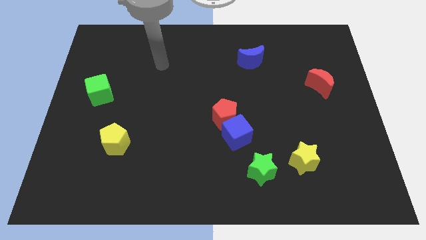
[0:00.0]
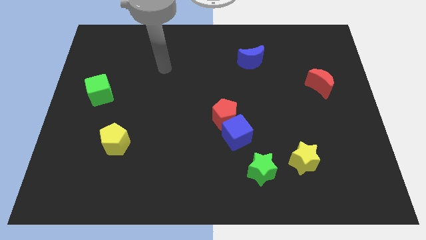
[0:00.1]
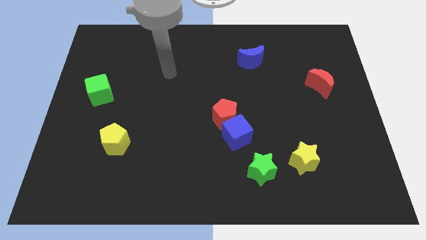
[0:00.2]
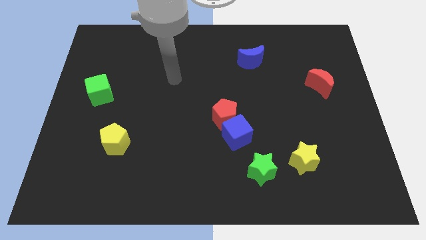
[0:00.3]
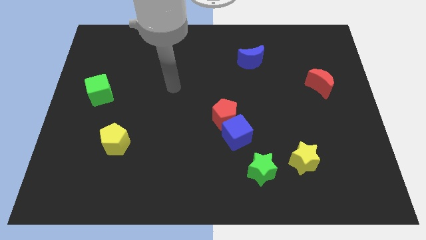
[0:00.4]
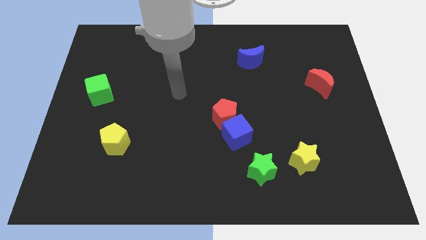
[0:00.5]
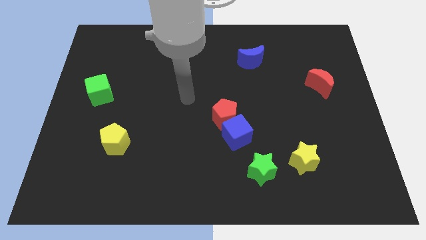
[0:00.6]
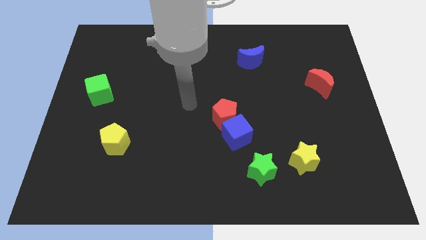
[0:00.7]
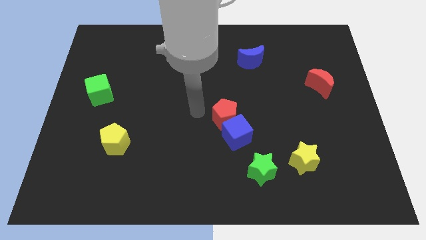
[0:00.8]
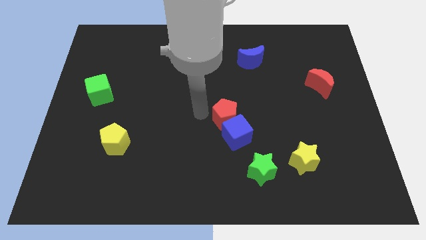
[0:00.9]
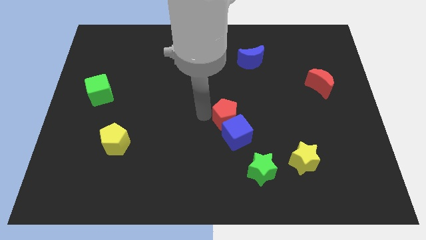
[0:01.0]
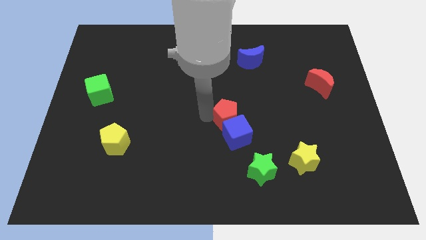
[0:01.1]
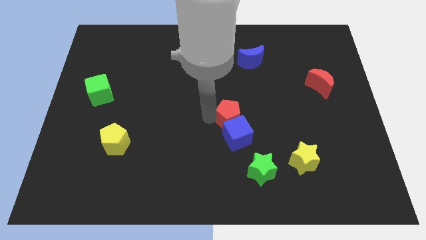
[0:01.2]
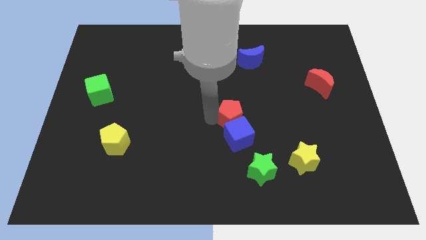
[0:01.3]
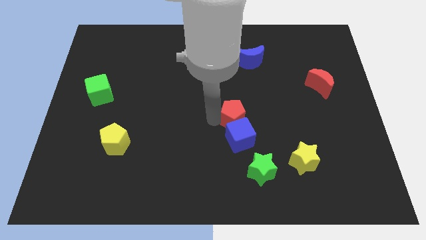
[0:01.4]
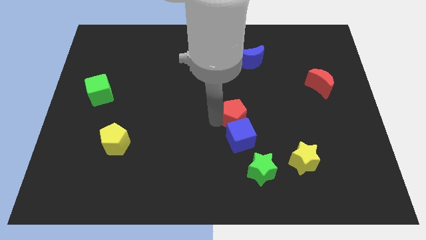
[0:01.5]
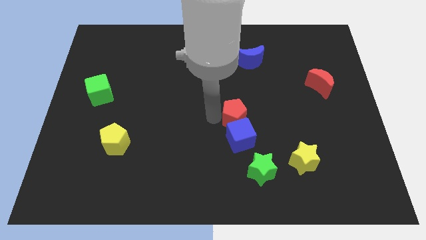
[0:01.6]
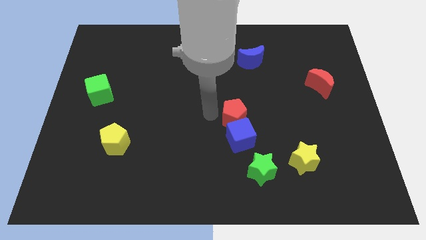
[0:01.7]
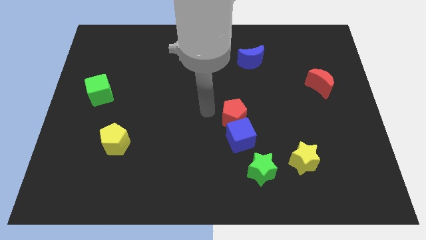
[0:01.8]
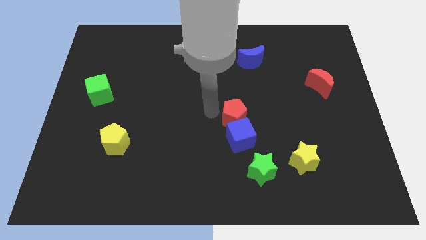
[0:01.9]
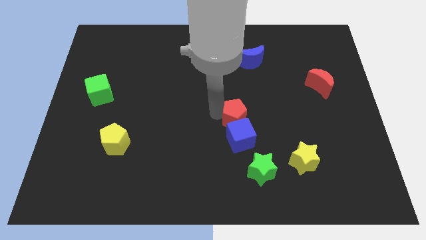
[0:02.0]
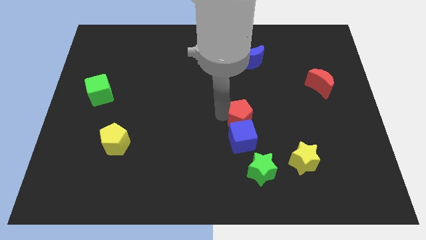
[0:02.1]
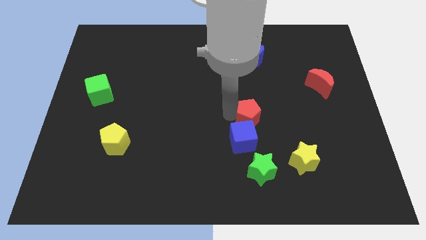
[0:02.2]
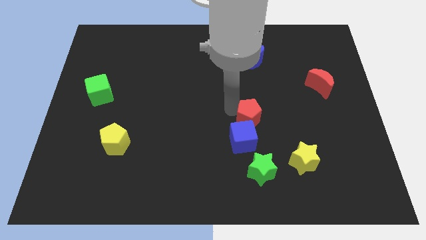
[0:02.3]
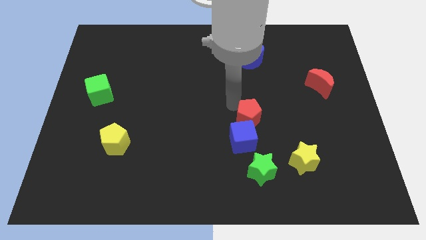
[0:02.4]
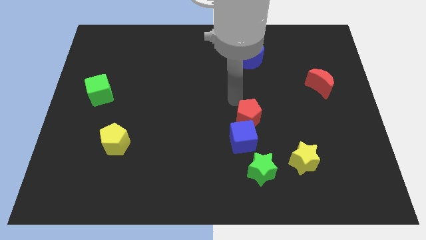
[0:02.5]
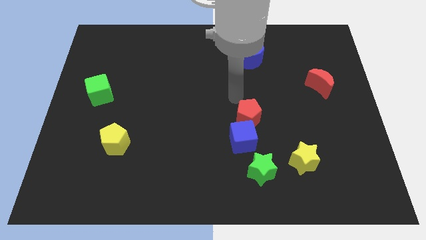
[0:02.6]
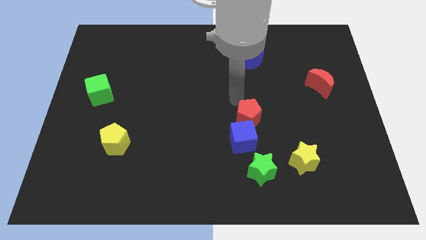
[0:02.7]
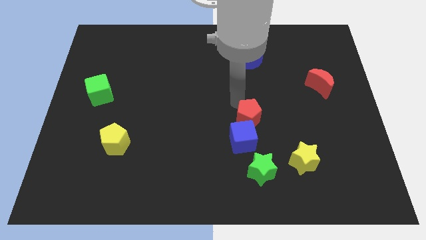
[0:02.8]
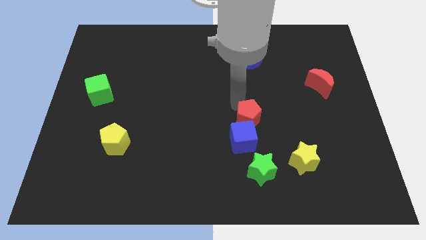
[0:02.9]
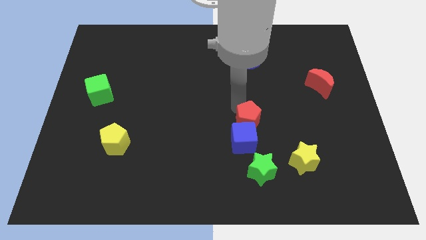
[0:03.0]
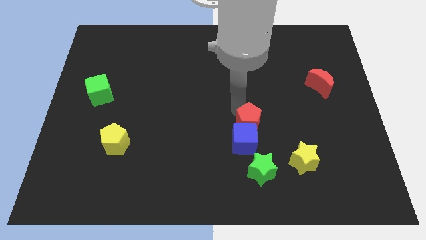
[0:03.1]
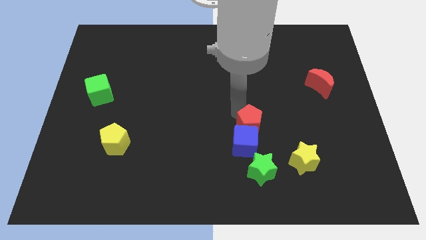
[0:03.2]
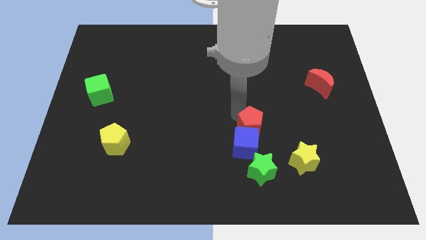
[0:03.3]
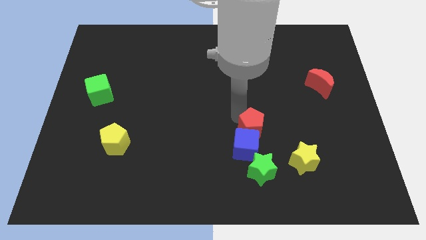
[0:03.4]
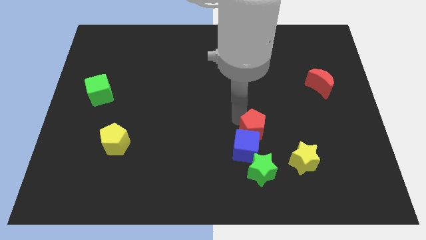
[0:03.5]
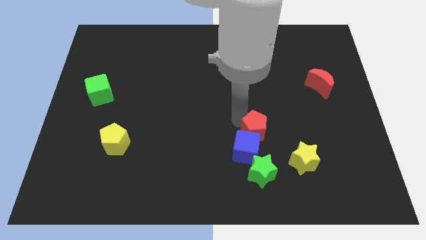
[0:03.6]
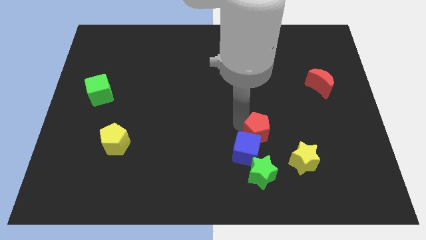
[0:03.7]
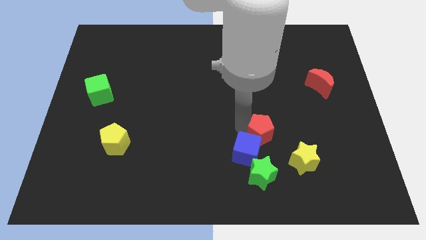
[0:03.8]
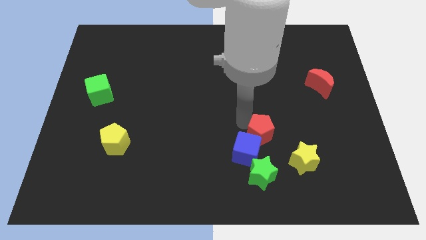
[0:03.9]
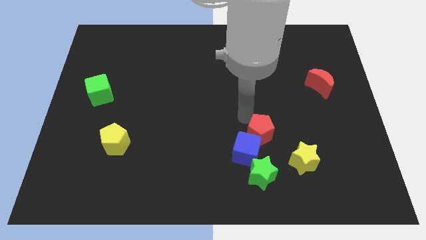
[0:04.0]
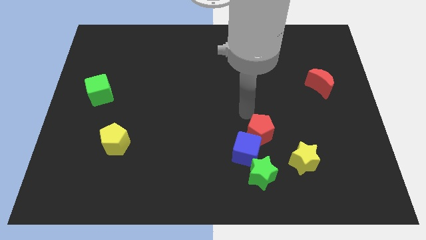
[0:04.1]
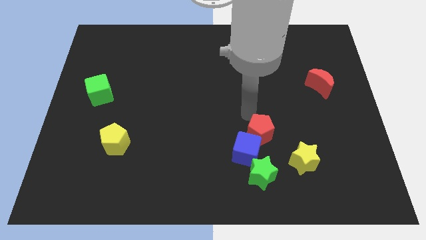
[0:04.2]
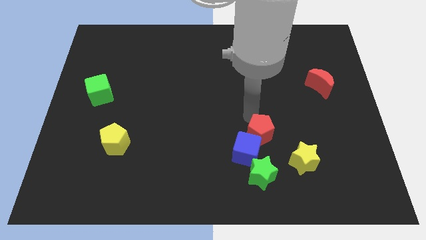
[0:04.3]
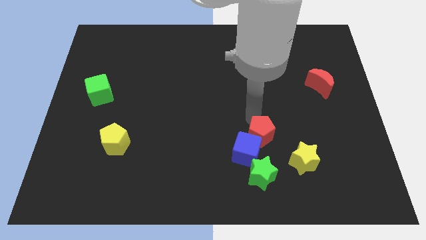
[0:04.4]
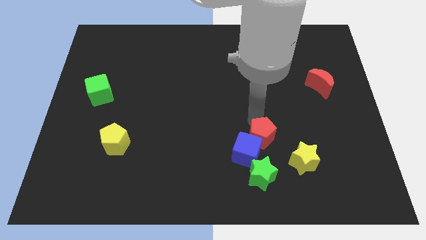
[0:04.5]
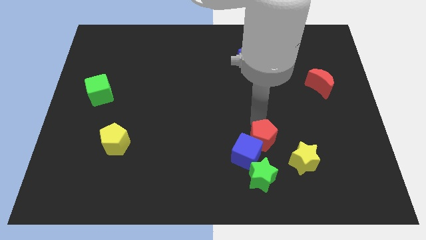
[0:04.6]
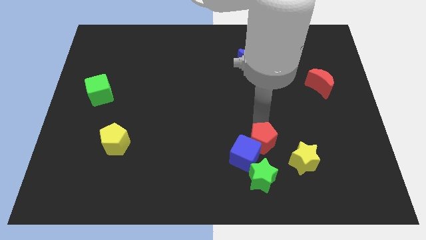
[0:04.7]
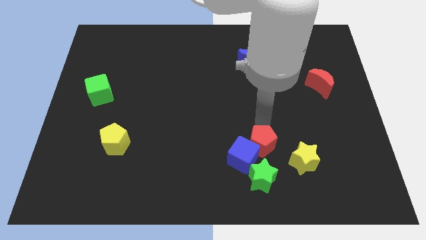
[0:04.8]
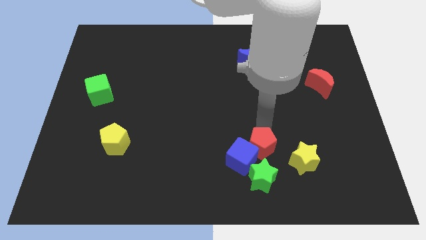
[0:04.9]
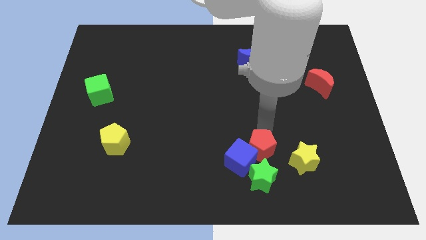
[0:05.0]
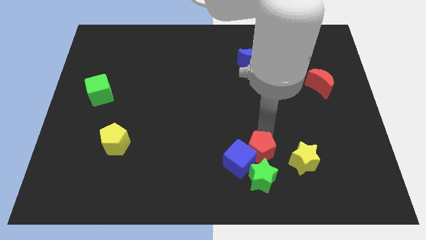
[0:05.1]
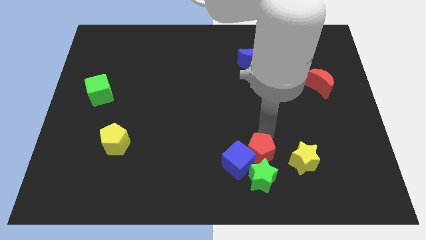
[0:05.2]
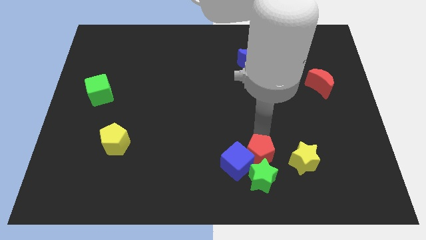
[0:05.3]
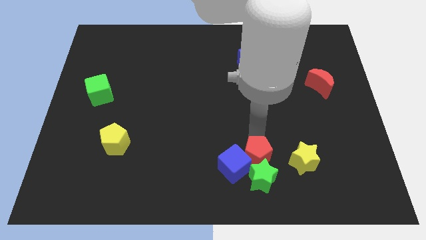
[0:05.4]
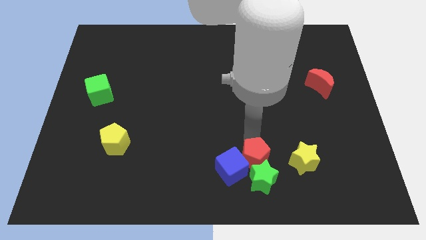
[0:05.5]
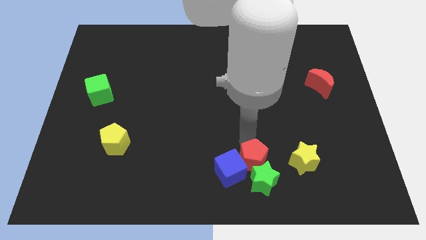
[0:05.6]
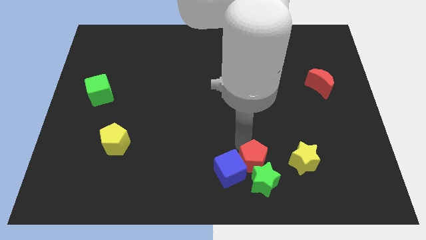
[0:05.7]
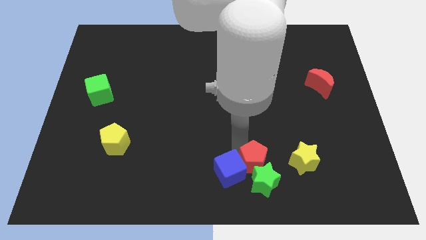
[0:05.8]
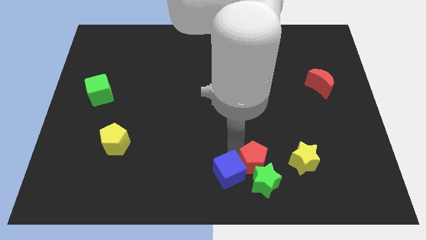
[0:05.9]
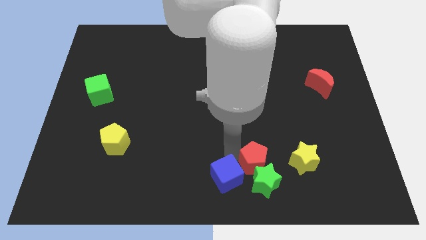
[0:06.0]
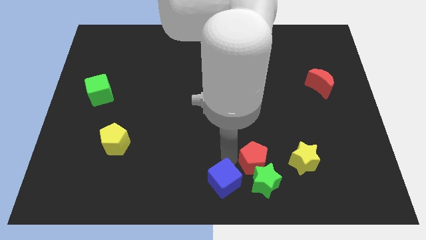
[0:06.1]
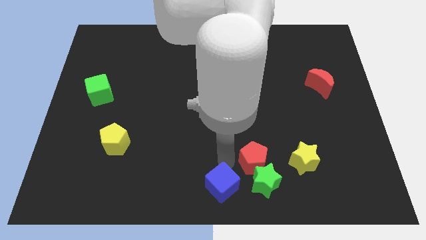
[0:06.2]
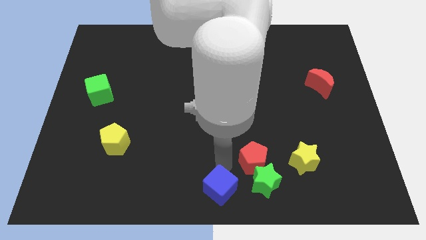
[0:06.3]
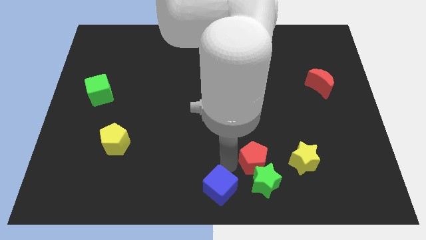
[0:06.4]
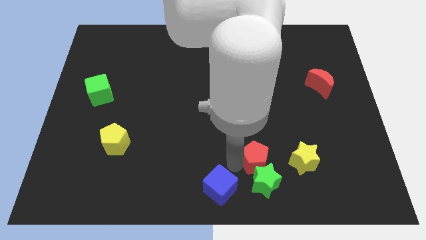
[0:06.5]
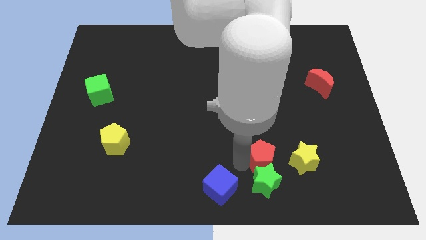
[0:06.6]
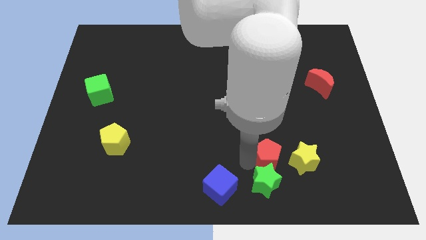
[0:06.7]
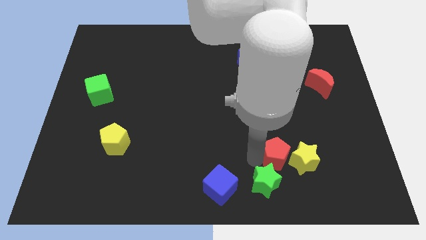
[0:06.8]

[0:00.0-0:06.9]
put the red pentagon to the bottom left side of the yellow star

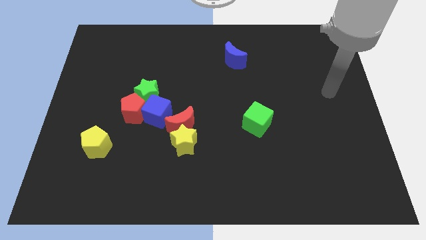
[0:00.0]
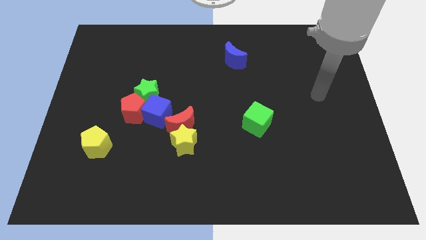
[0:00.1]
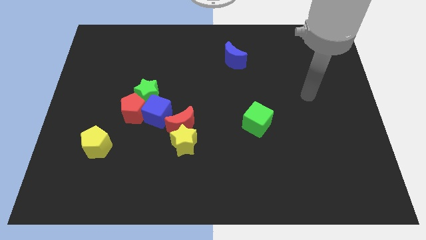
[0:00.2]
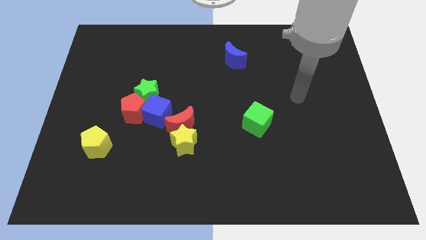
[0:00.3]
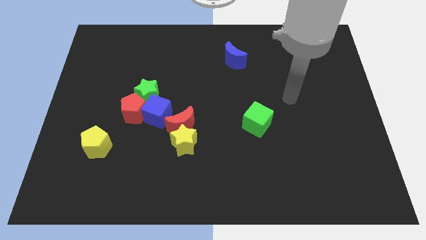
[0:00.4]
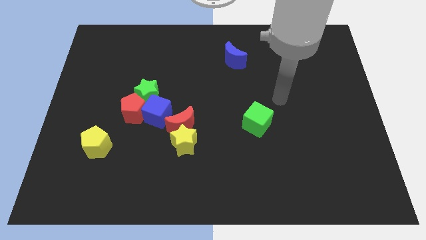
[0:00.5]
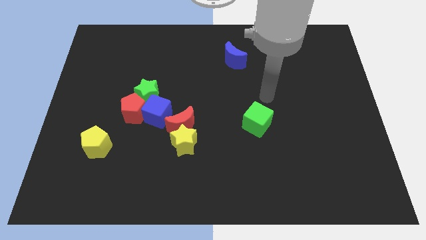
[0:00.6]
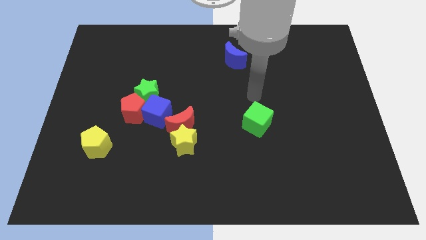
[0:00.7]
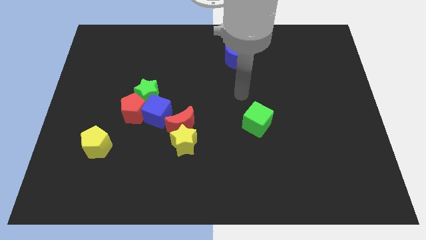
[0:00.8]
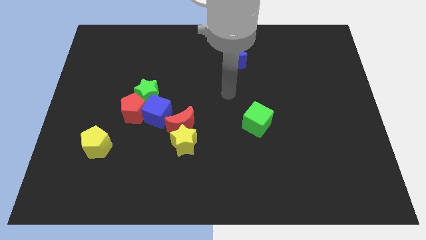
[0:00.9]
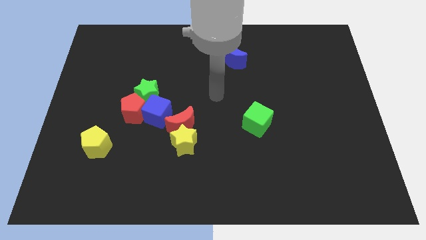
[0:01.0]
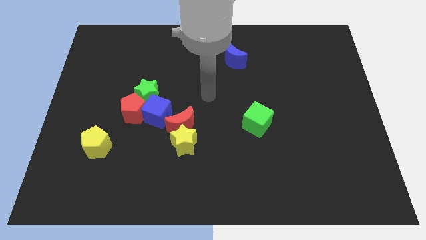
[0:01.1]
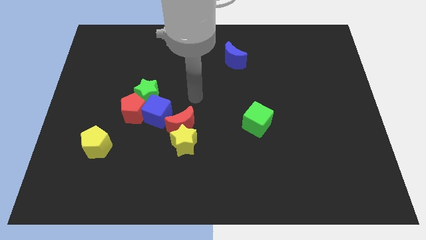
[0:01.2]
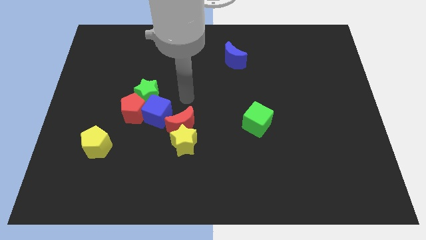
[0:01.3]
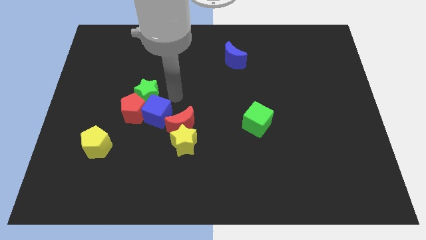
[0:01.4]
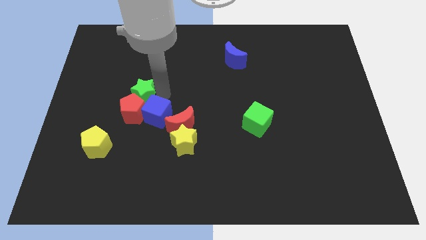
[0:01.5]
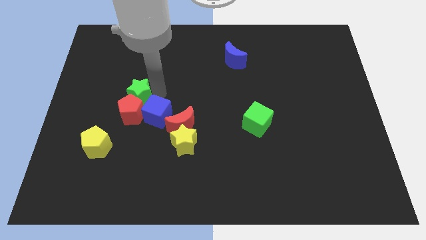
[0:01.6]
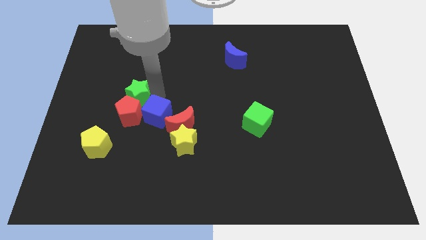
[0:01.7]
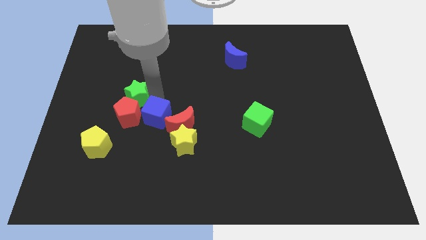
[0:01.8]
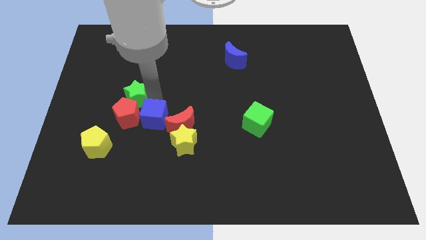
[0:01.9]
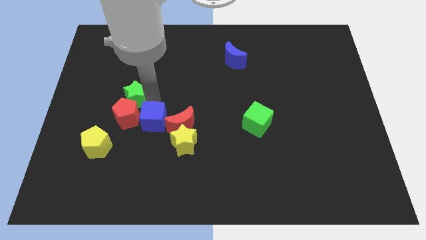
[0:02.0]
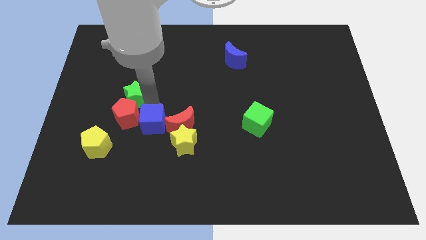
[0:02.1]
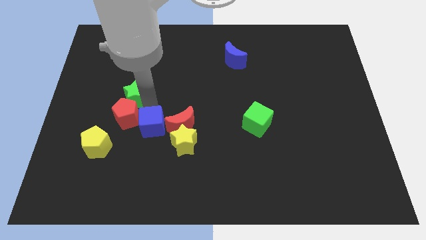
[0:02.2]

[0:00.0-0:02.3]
move the blue cube to the bottom left of the red moon
